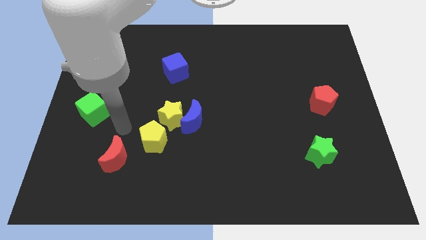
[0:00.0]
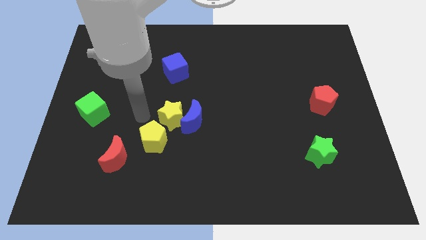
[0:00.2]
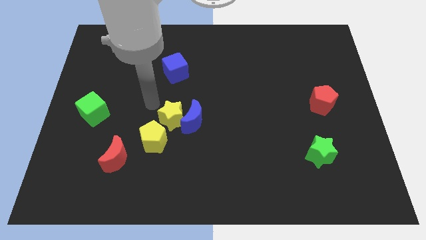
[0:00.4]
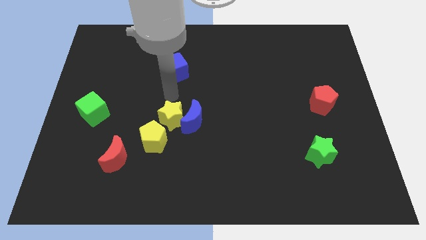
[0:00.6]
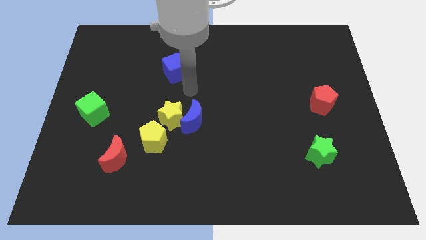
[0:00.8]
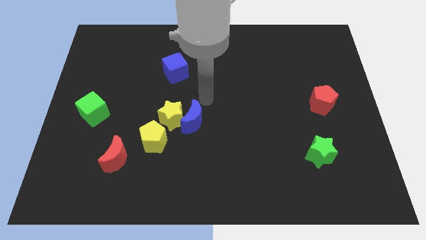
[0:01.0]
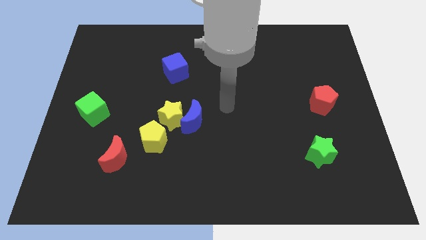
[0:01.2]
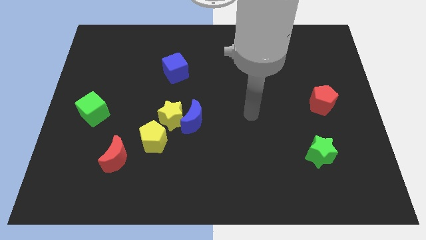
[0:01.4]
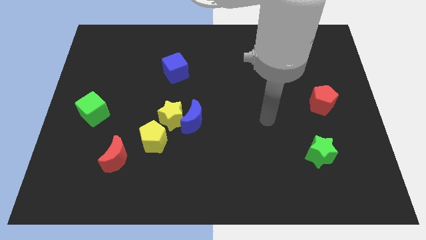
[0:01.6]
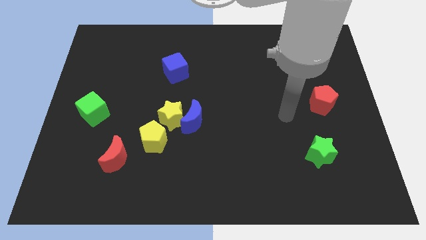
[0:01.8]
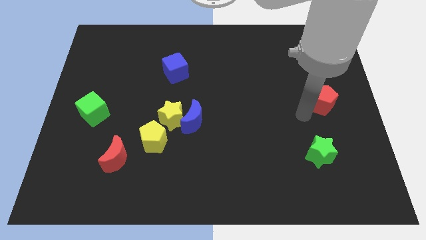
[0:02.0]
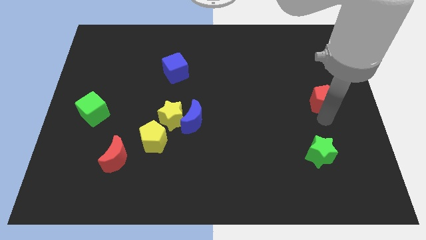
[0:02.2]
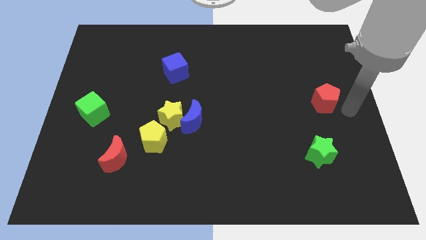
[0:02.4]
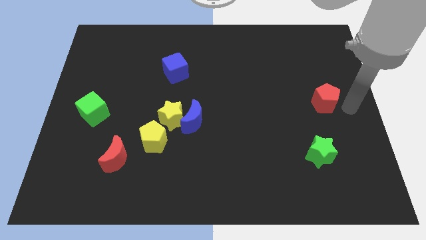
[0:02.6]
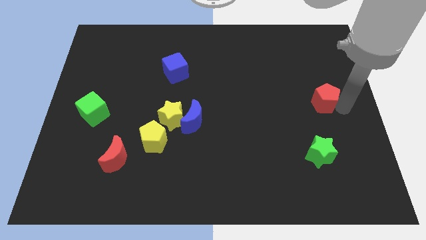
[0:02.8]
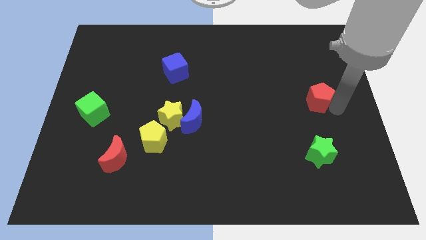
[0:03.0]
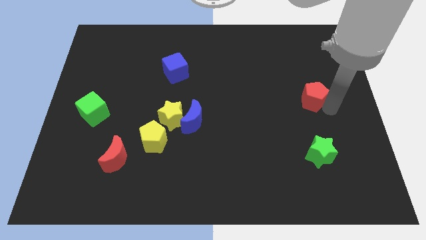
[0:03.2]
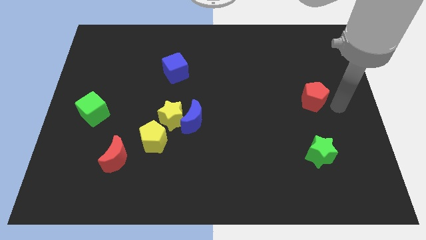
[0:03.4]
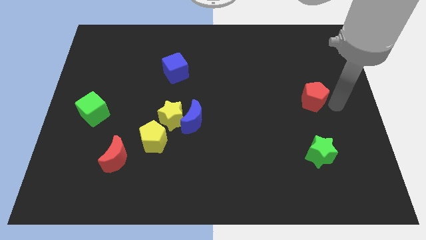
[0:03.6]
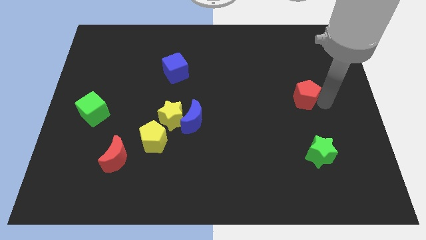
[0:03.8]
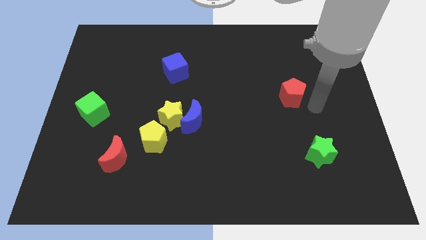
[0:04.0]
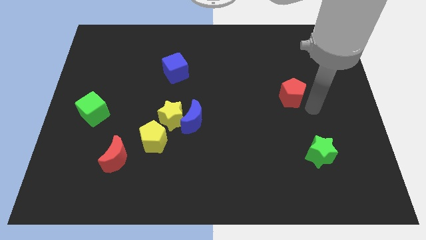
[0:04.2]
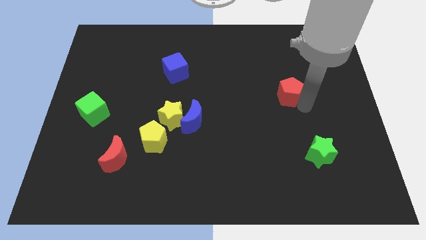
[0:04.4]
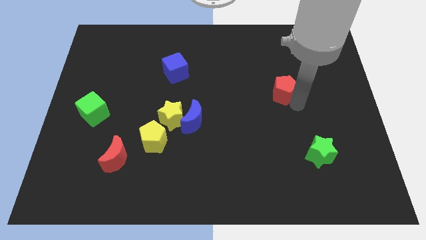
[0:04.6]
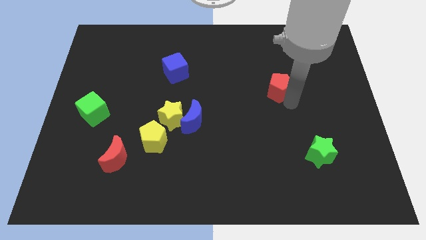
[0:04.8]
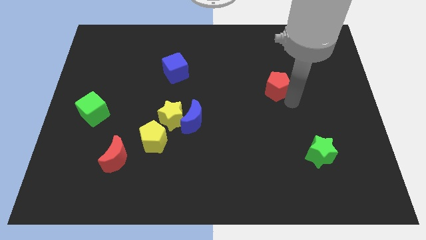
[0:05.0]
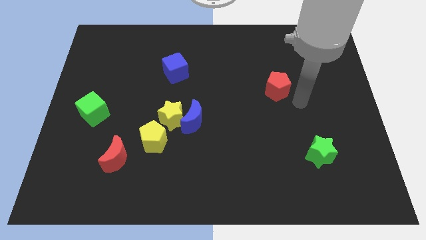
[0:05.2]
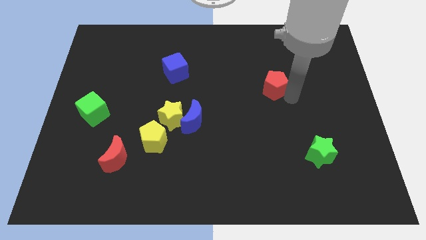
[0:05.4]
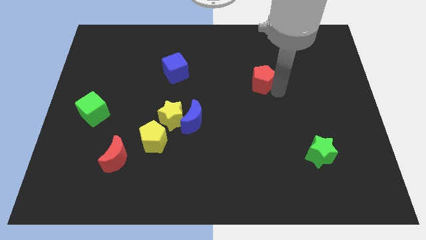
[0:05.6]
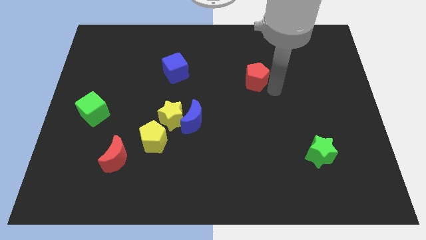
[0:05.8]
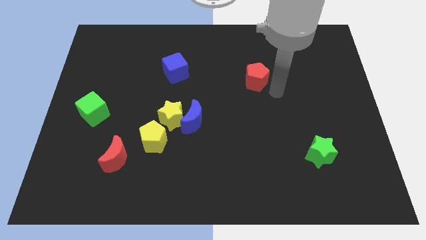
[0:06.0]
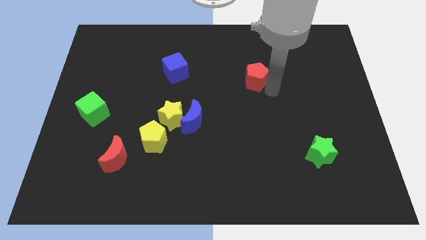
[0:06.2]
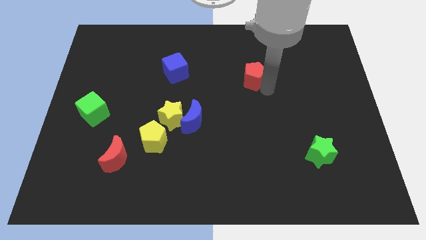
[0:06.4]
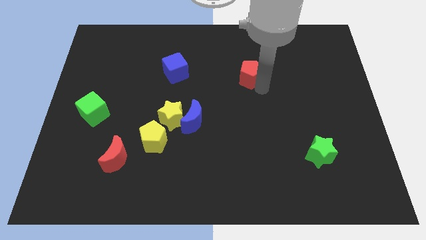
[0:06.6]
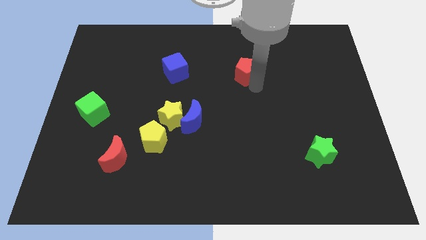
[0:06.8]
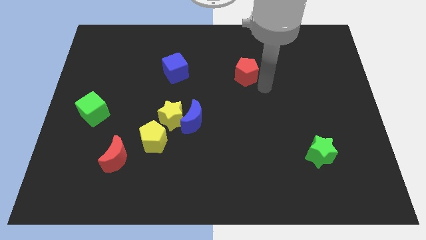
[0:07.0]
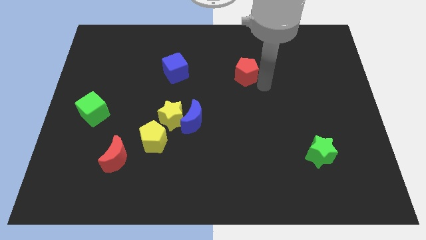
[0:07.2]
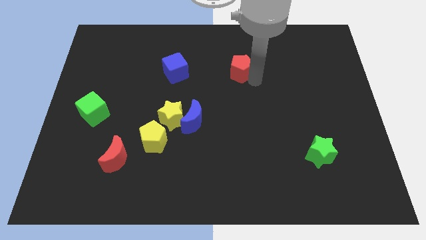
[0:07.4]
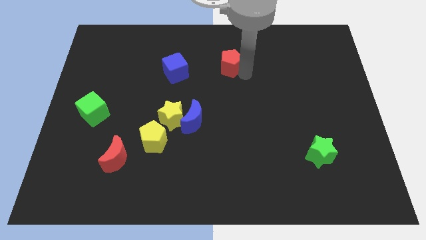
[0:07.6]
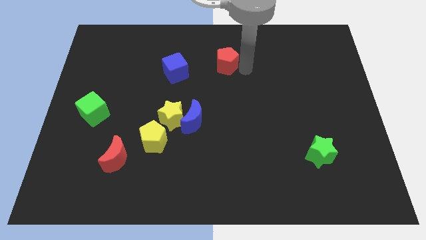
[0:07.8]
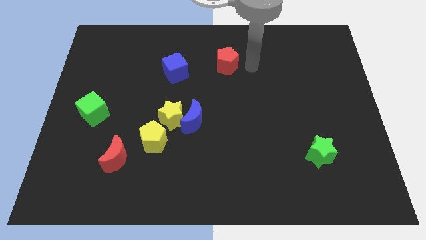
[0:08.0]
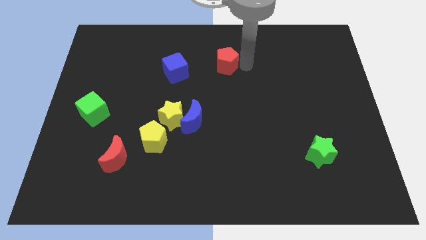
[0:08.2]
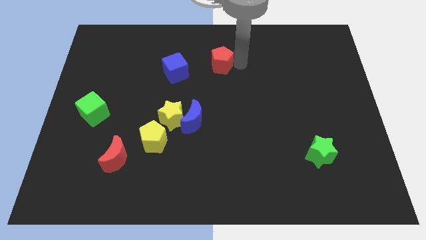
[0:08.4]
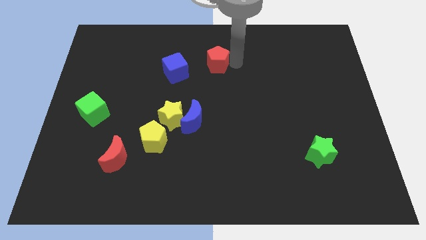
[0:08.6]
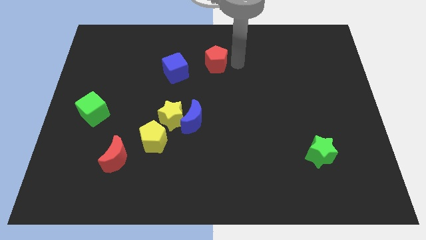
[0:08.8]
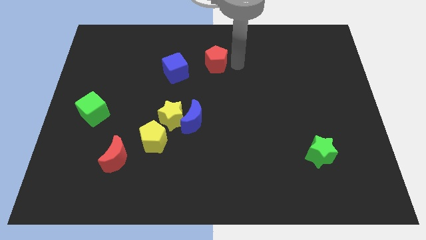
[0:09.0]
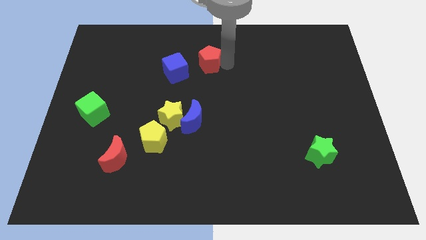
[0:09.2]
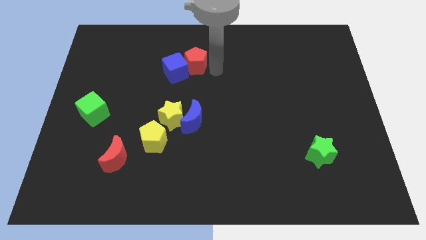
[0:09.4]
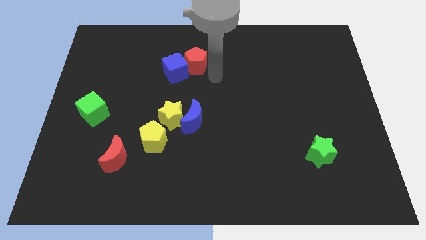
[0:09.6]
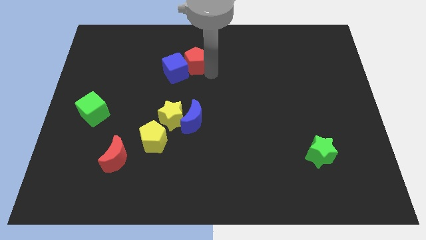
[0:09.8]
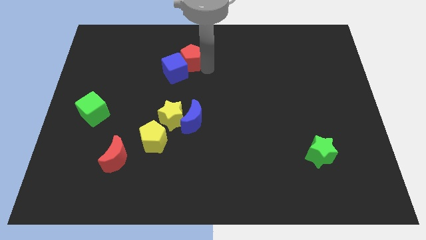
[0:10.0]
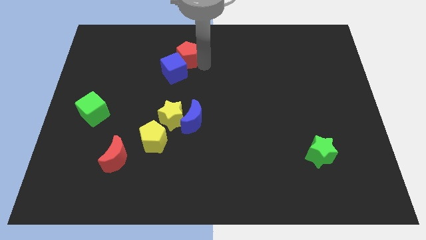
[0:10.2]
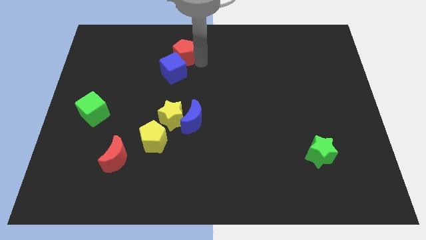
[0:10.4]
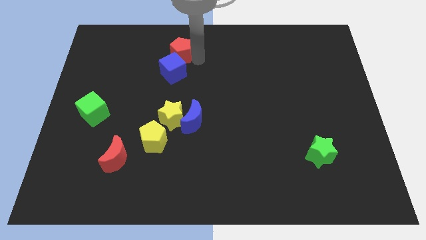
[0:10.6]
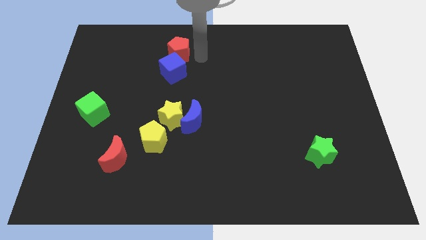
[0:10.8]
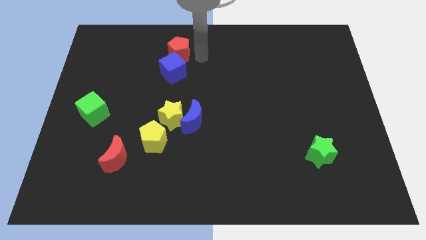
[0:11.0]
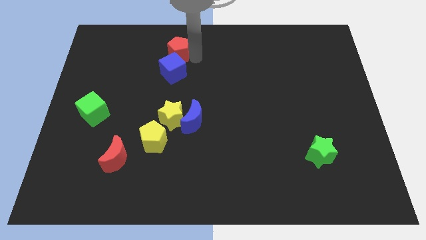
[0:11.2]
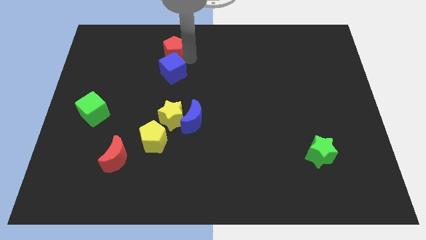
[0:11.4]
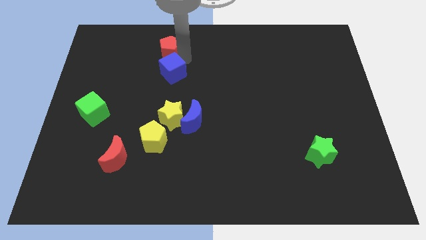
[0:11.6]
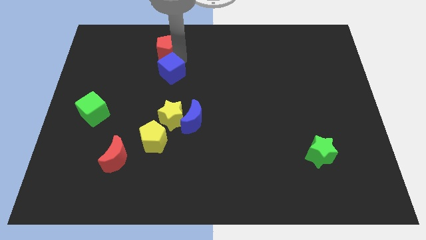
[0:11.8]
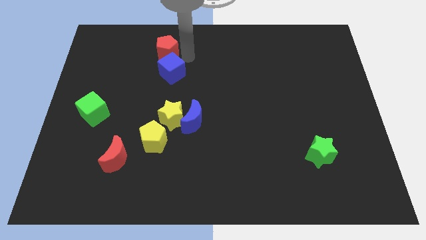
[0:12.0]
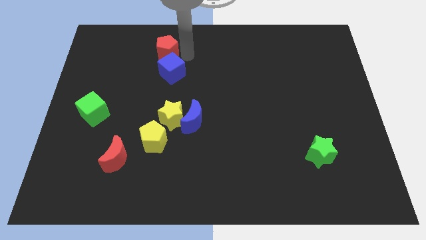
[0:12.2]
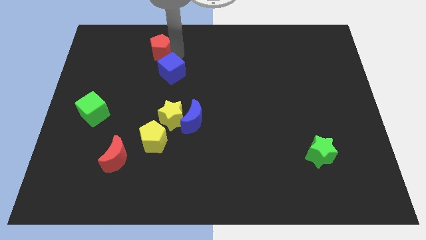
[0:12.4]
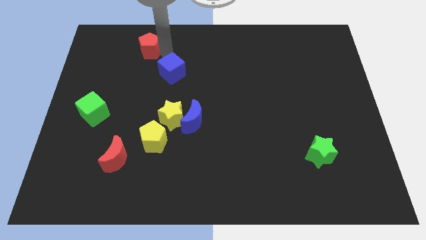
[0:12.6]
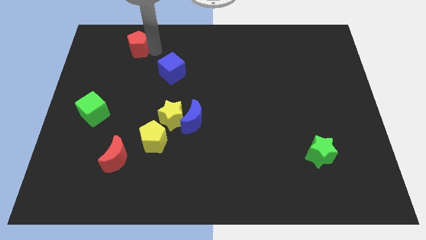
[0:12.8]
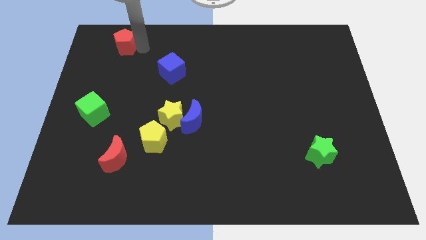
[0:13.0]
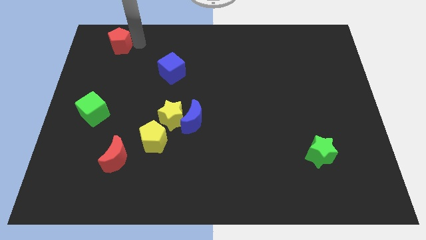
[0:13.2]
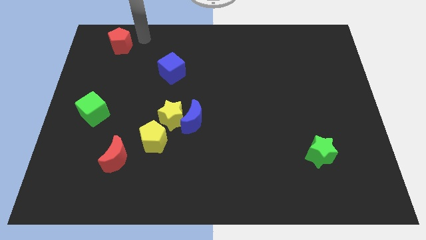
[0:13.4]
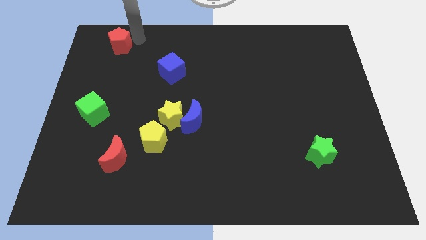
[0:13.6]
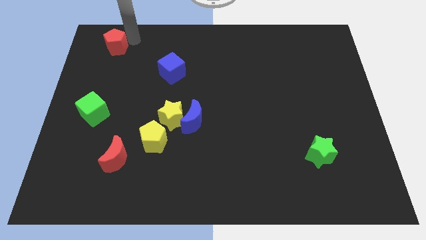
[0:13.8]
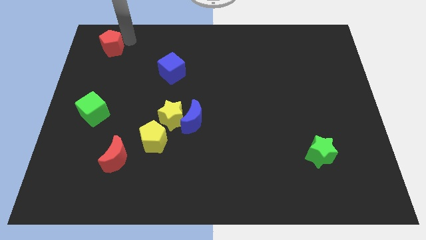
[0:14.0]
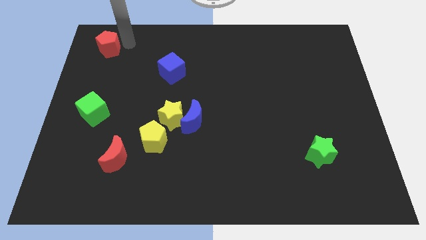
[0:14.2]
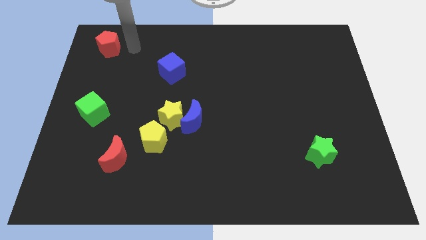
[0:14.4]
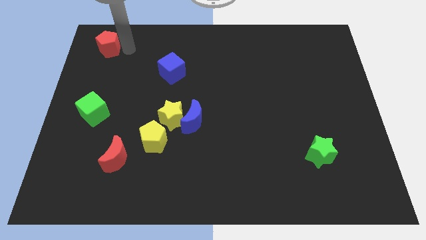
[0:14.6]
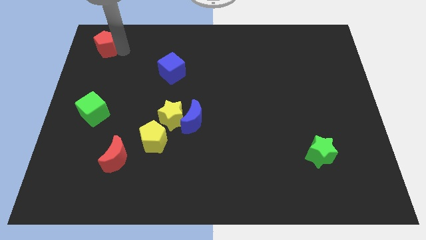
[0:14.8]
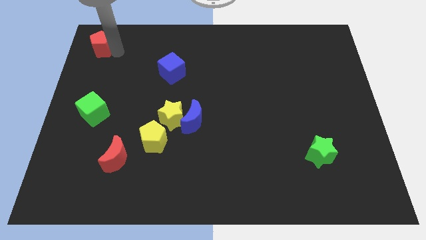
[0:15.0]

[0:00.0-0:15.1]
put the red pentagon to the top left corner
